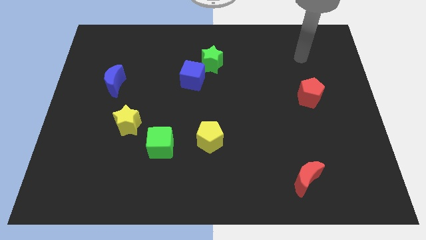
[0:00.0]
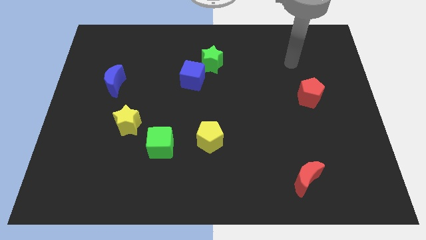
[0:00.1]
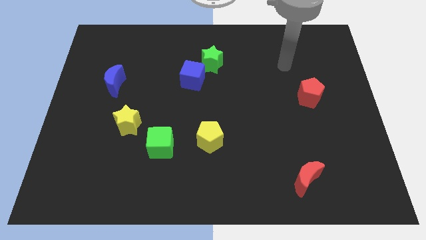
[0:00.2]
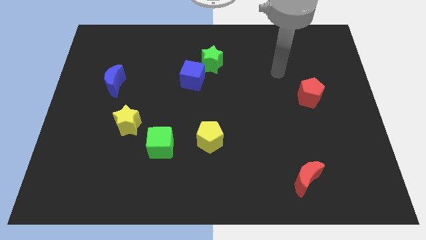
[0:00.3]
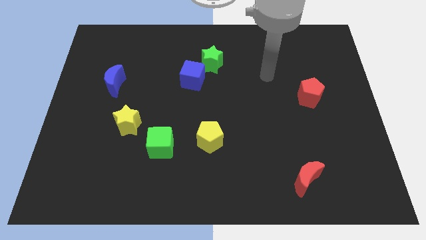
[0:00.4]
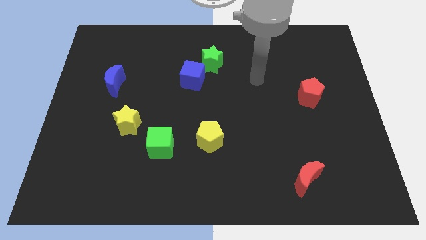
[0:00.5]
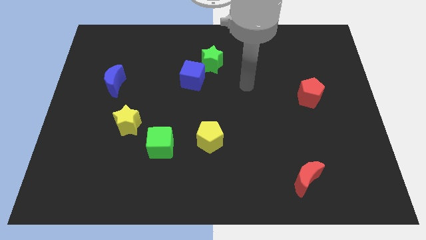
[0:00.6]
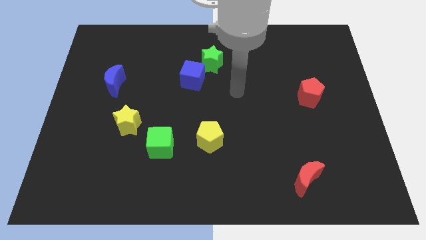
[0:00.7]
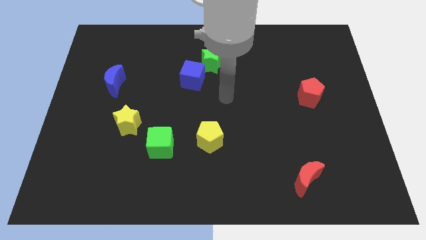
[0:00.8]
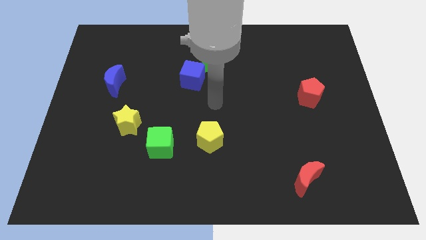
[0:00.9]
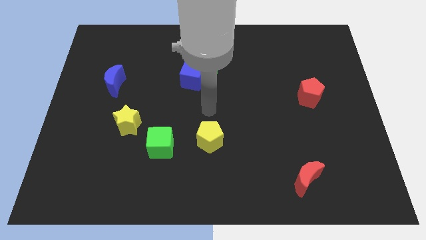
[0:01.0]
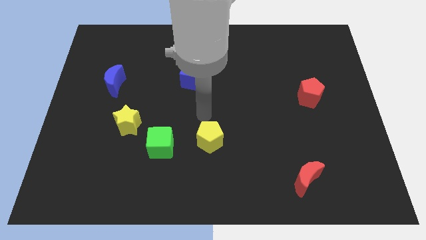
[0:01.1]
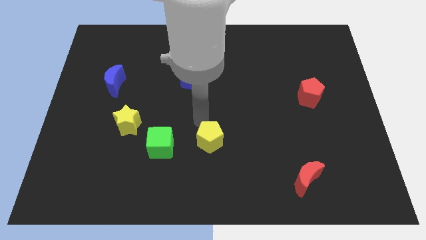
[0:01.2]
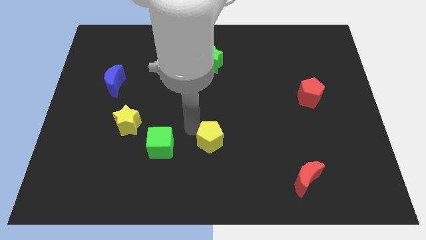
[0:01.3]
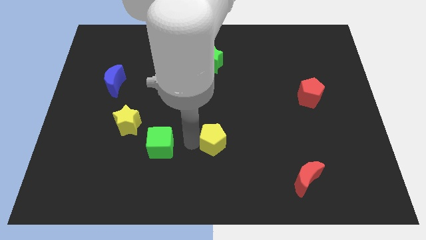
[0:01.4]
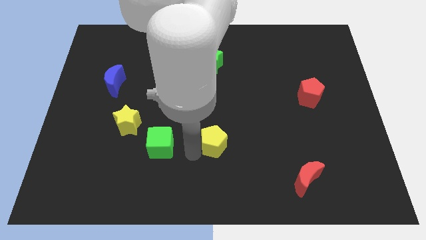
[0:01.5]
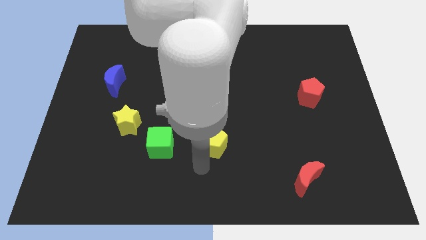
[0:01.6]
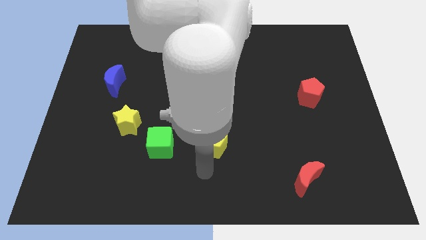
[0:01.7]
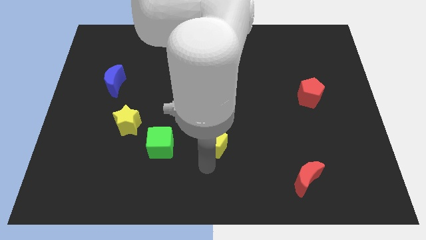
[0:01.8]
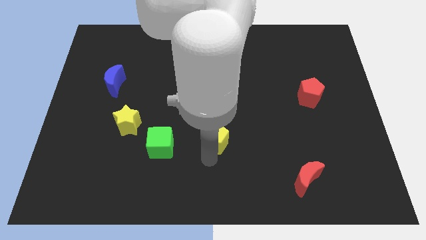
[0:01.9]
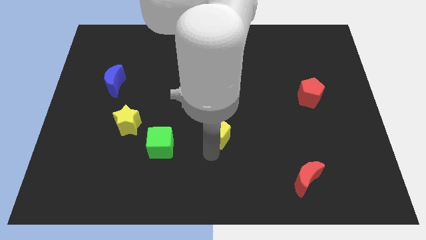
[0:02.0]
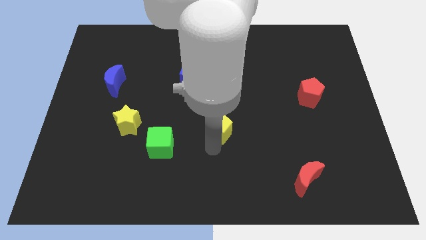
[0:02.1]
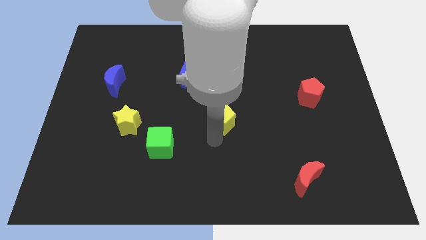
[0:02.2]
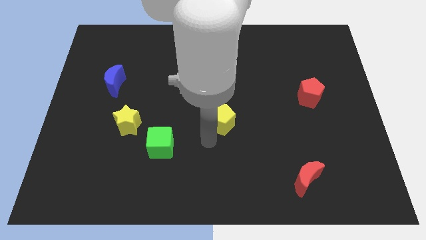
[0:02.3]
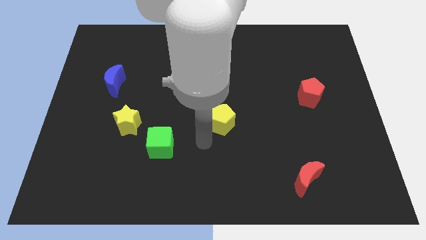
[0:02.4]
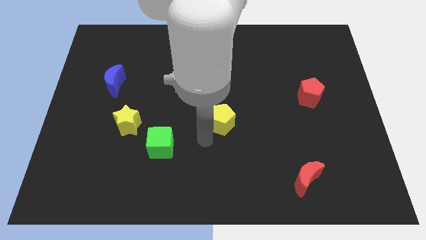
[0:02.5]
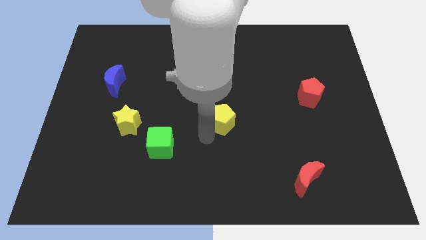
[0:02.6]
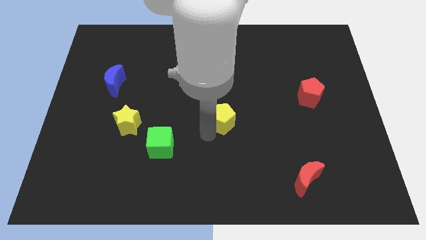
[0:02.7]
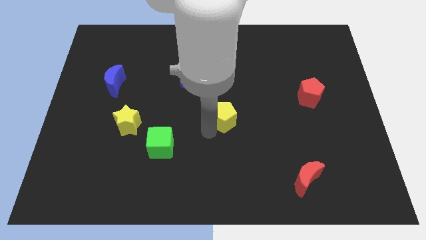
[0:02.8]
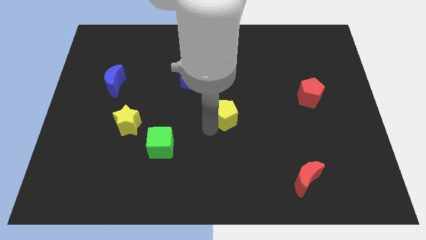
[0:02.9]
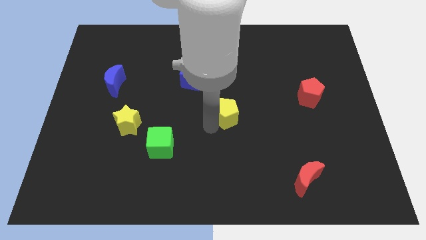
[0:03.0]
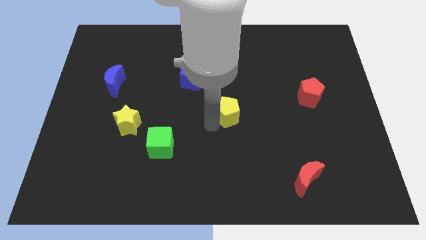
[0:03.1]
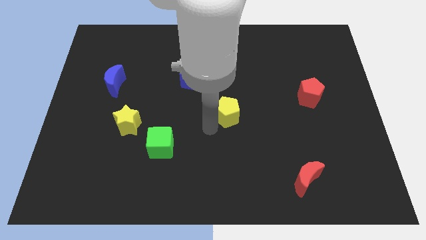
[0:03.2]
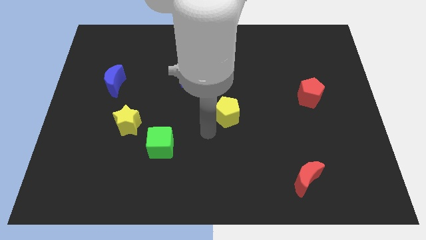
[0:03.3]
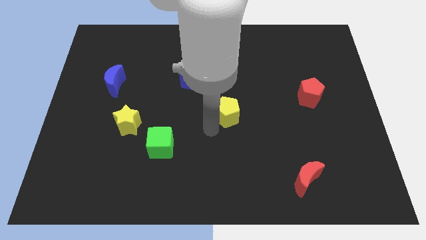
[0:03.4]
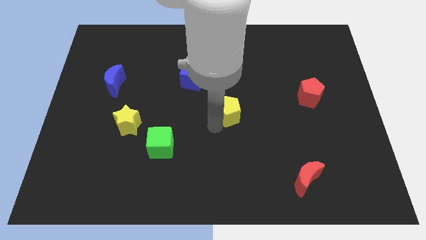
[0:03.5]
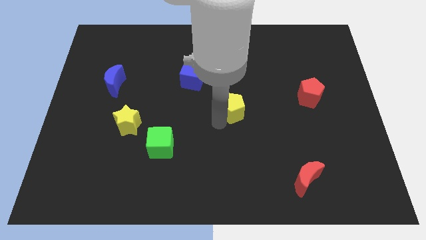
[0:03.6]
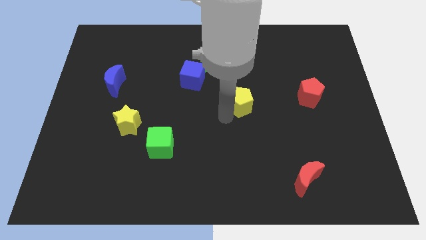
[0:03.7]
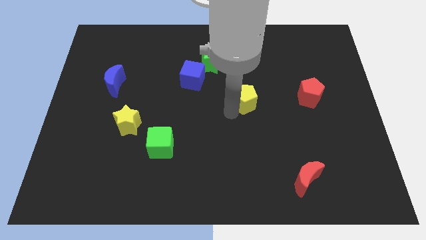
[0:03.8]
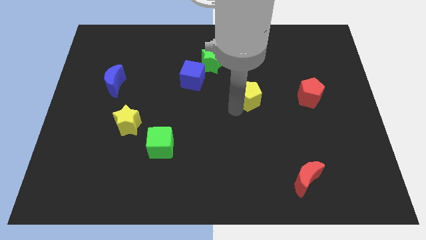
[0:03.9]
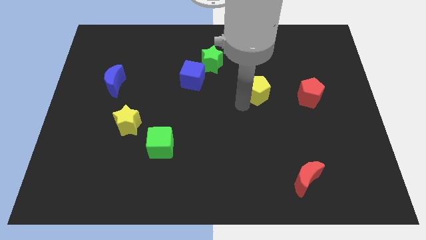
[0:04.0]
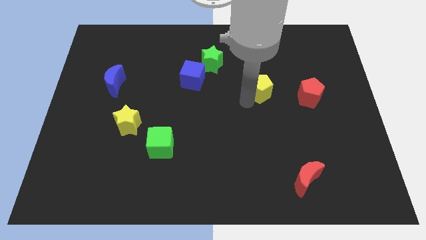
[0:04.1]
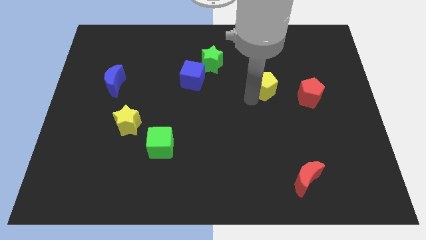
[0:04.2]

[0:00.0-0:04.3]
push the yellow pentagon diagonally up and to the right

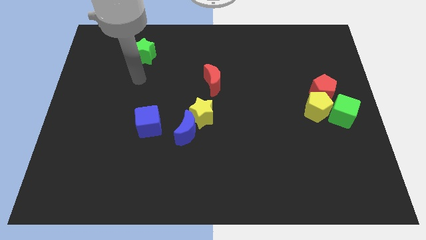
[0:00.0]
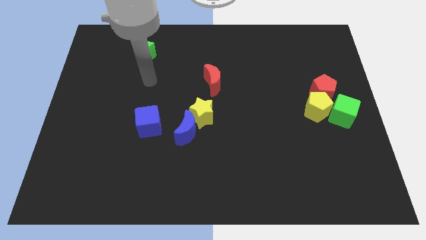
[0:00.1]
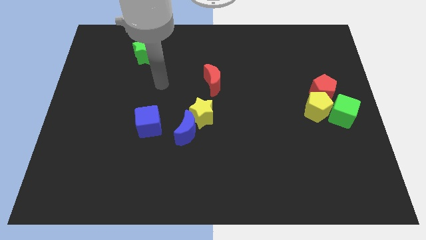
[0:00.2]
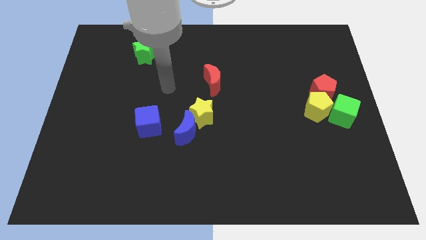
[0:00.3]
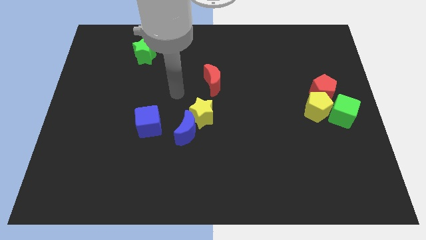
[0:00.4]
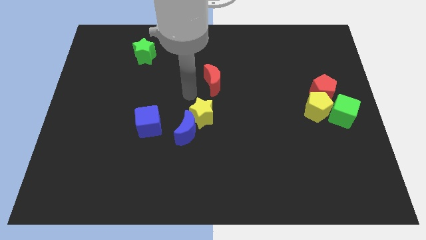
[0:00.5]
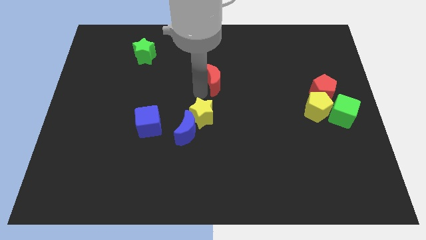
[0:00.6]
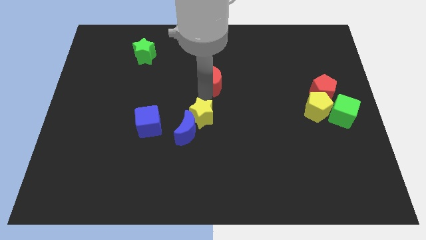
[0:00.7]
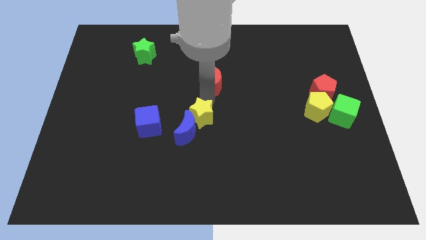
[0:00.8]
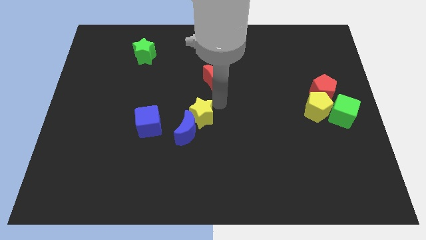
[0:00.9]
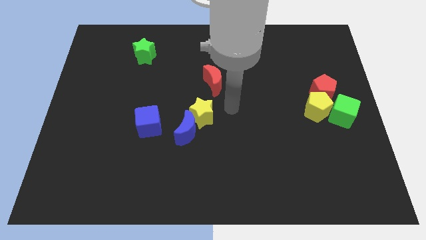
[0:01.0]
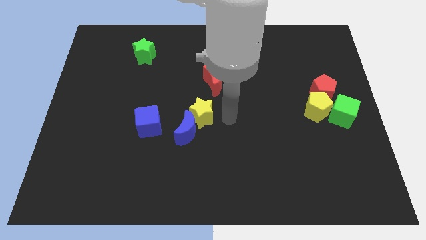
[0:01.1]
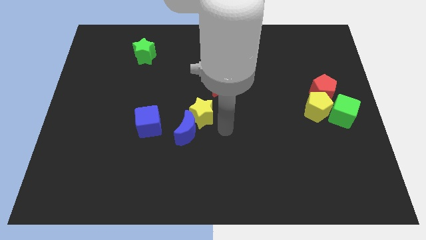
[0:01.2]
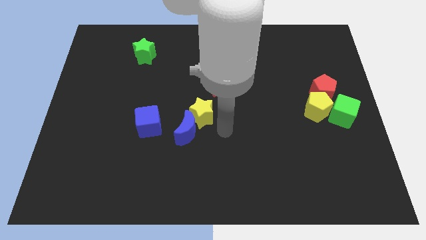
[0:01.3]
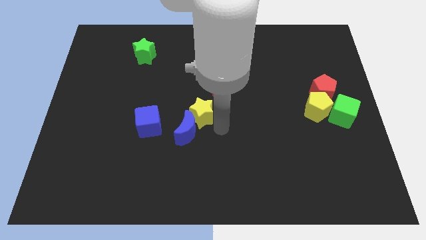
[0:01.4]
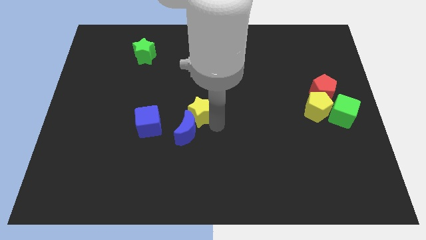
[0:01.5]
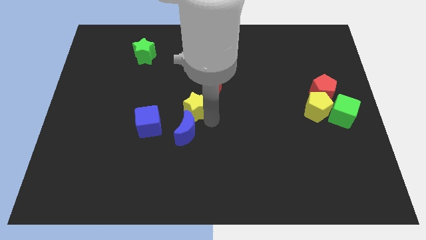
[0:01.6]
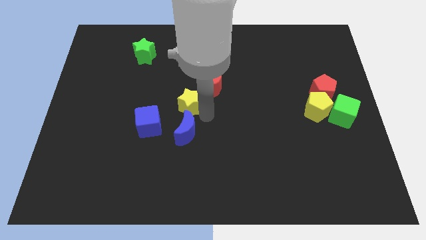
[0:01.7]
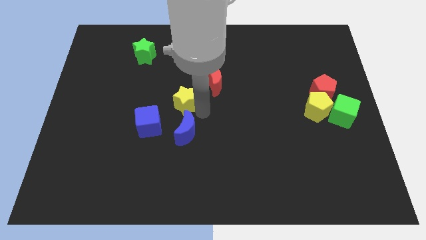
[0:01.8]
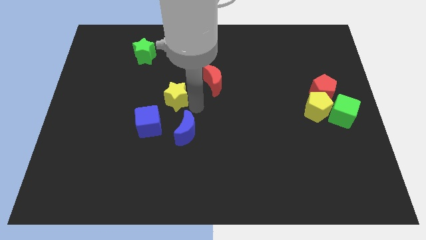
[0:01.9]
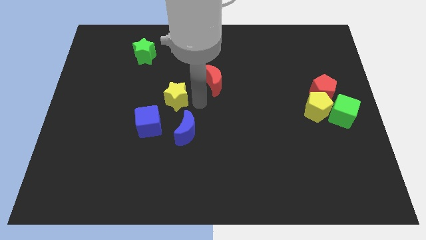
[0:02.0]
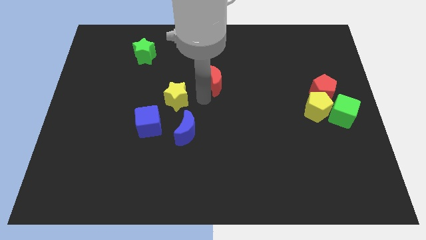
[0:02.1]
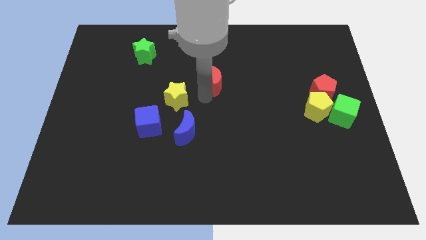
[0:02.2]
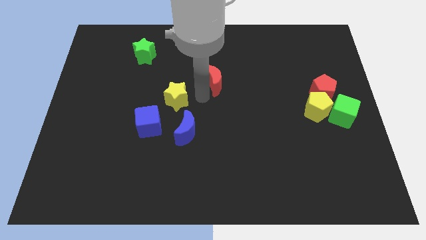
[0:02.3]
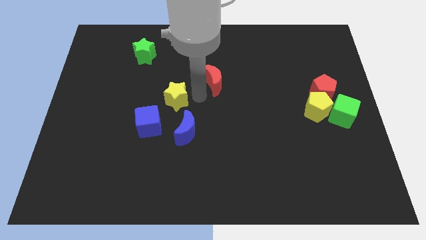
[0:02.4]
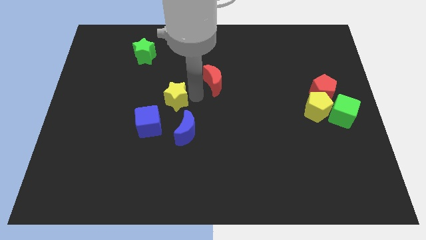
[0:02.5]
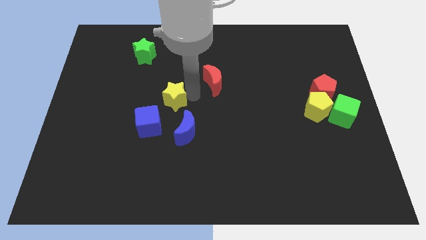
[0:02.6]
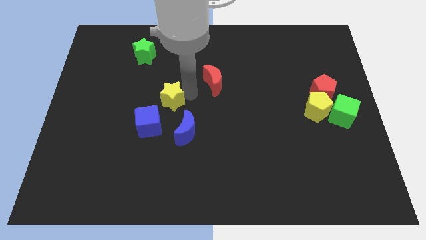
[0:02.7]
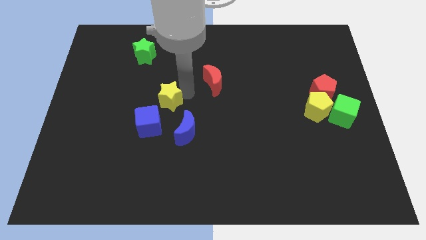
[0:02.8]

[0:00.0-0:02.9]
push the yellow star left somewhat

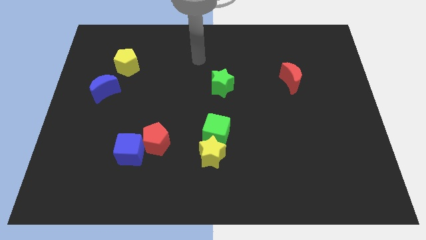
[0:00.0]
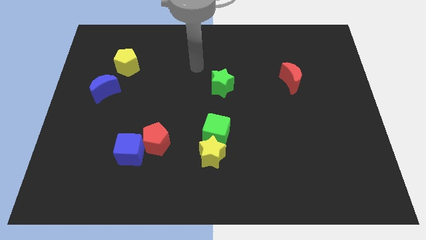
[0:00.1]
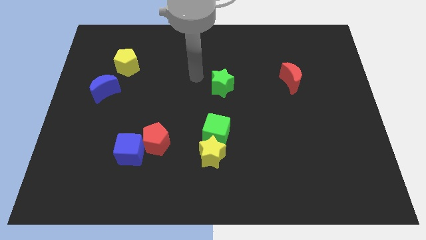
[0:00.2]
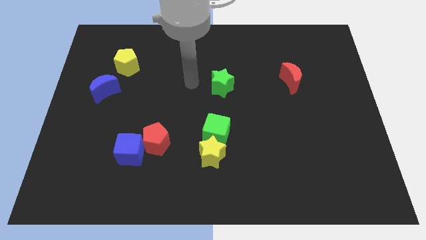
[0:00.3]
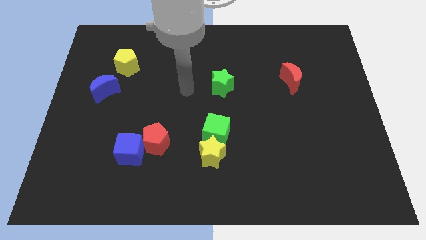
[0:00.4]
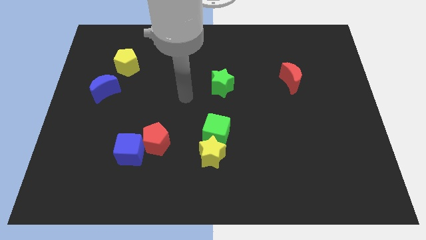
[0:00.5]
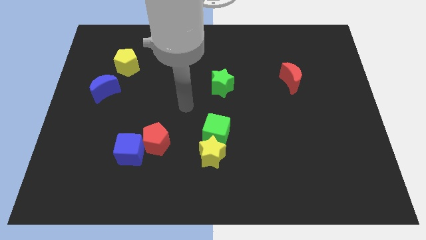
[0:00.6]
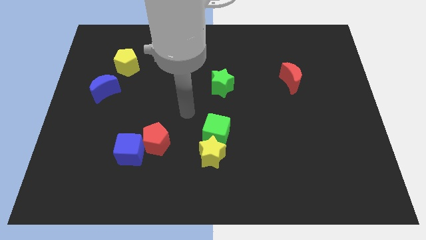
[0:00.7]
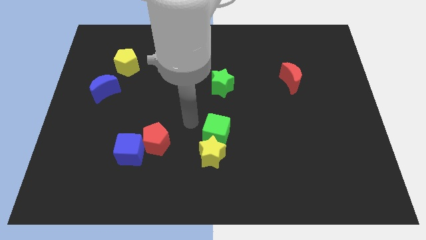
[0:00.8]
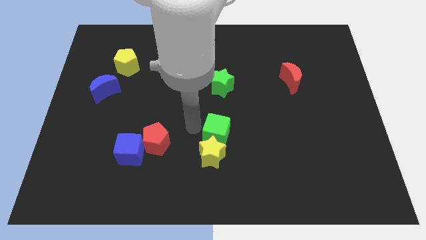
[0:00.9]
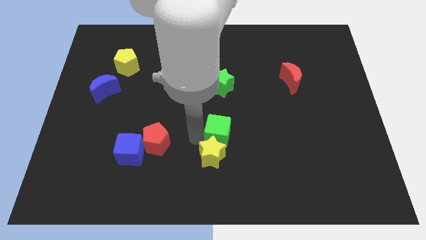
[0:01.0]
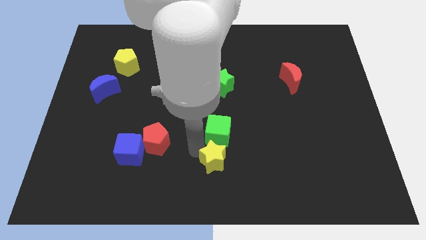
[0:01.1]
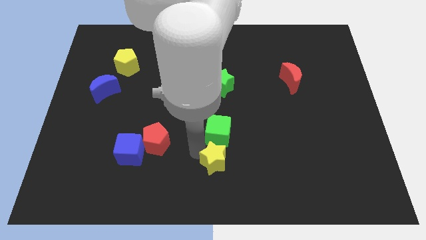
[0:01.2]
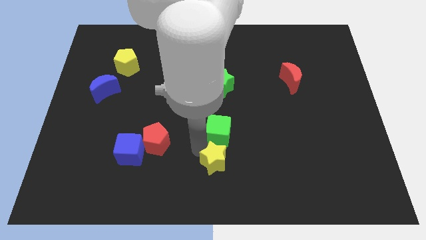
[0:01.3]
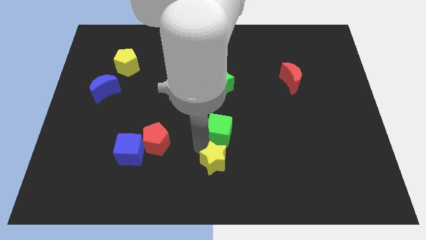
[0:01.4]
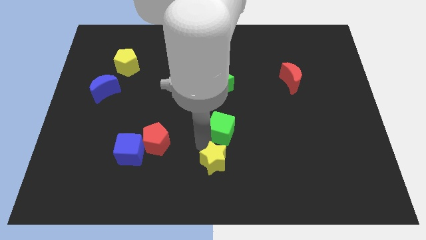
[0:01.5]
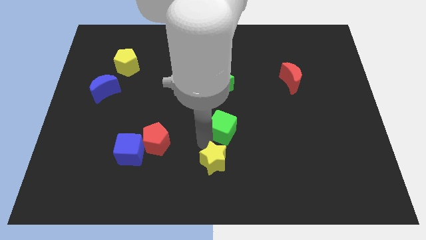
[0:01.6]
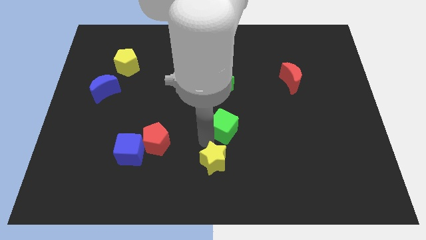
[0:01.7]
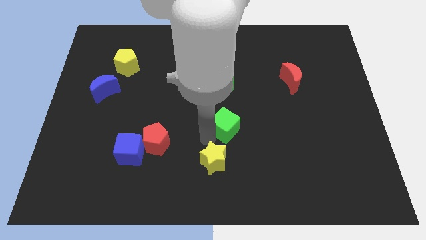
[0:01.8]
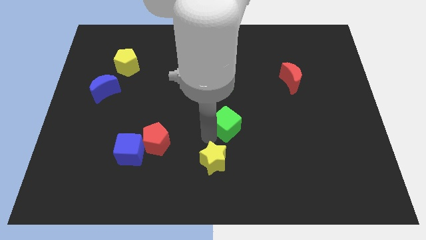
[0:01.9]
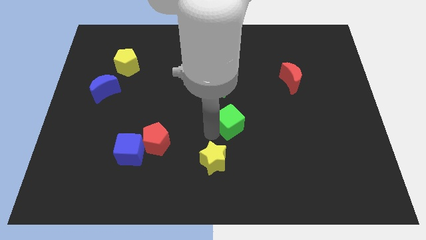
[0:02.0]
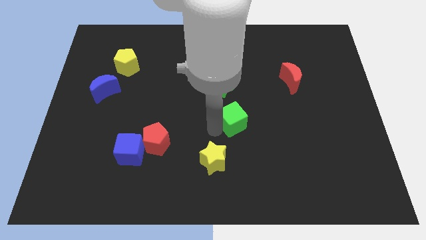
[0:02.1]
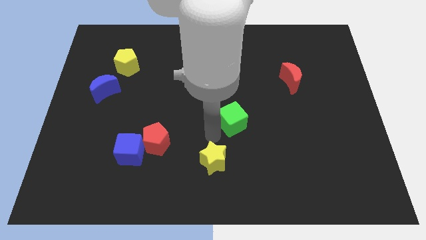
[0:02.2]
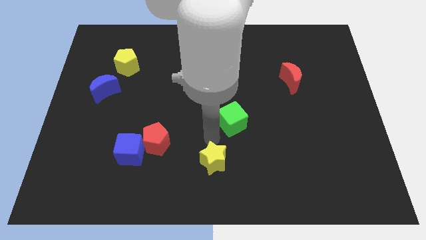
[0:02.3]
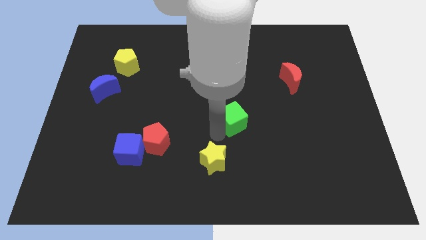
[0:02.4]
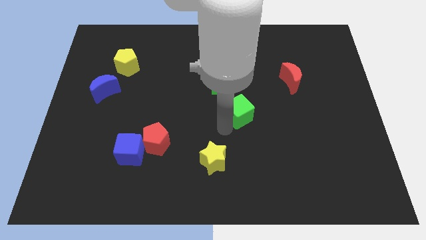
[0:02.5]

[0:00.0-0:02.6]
slide the green cube a little bit upwards and to the right
